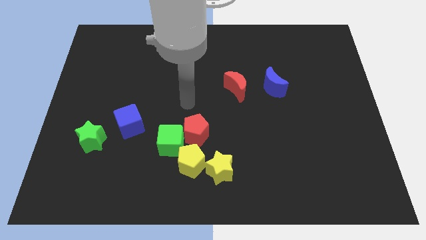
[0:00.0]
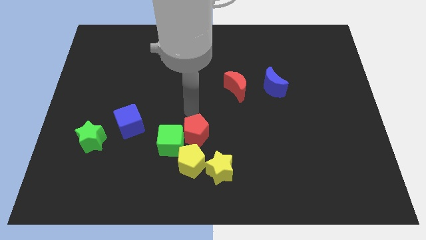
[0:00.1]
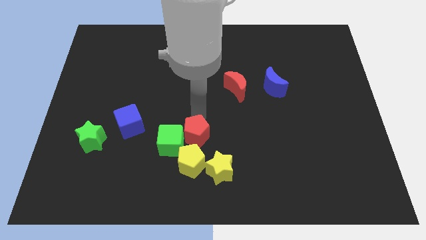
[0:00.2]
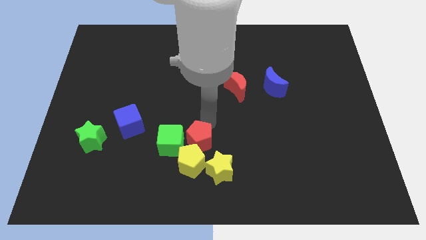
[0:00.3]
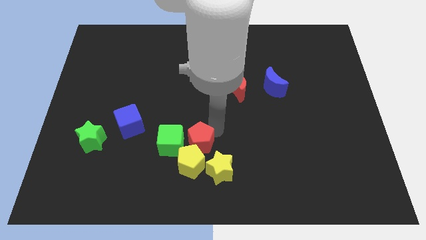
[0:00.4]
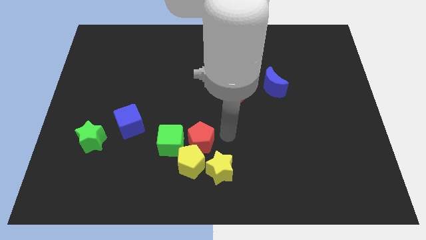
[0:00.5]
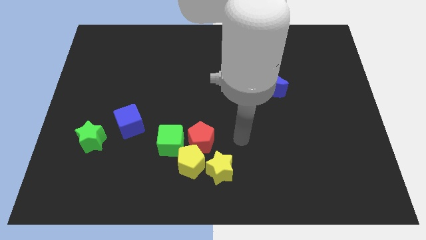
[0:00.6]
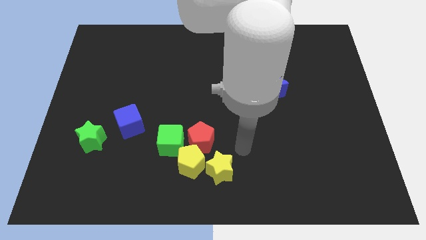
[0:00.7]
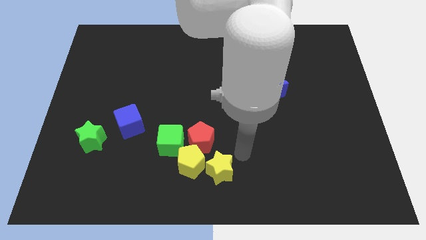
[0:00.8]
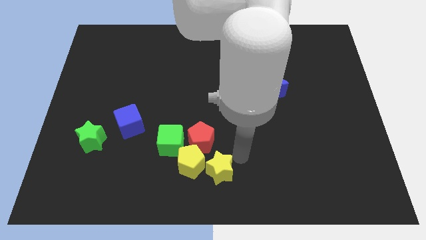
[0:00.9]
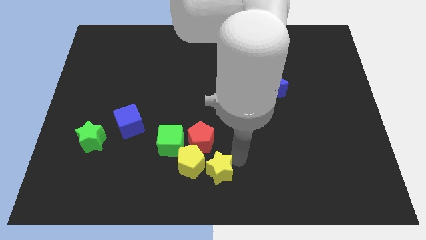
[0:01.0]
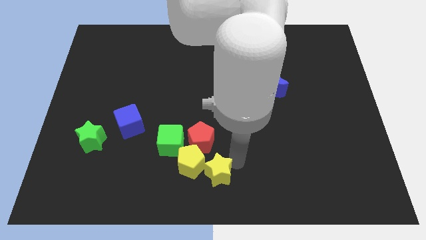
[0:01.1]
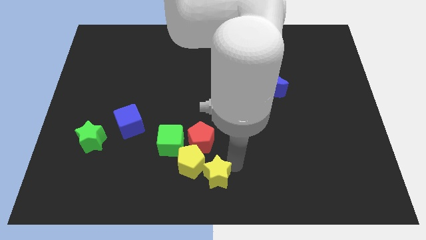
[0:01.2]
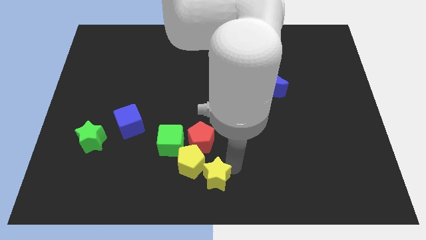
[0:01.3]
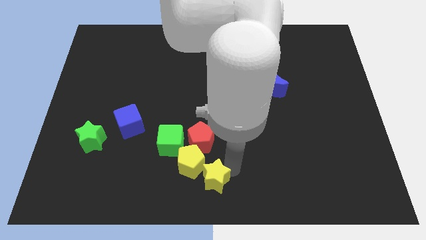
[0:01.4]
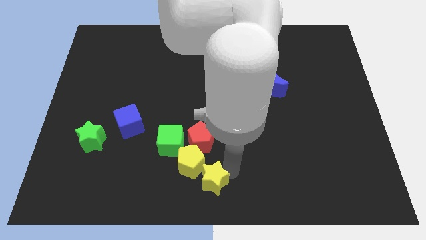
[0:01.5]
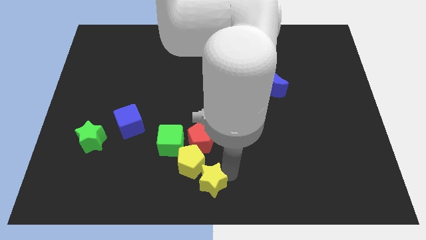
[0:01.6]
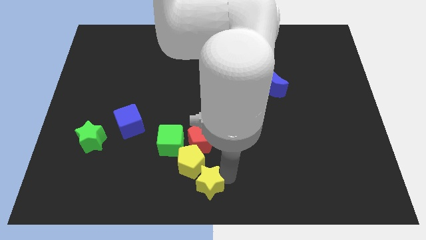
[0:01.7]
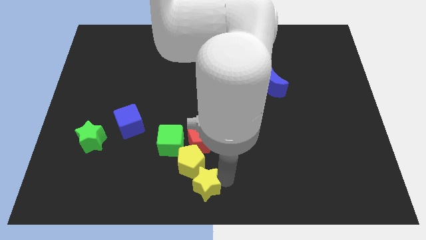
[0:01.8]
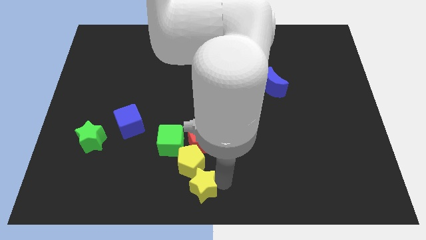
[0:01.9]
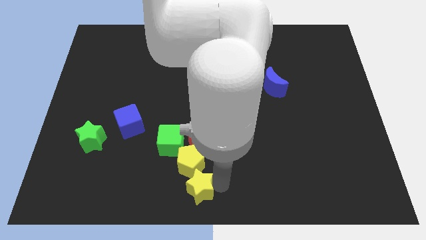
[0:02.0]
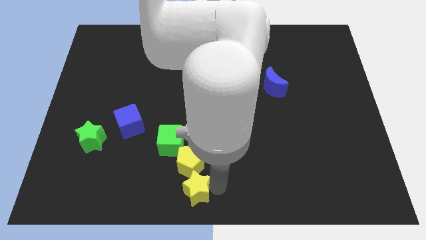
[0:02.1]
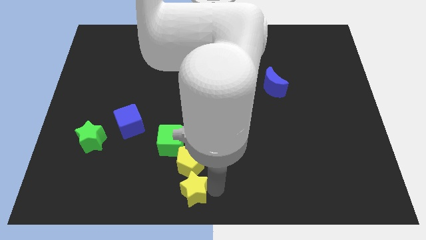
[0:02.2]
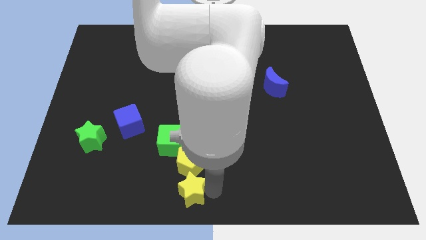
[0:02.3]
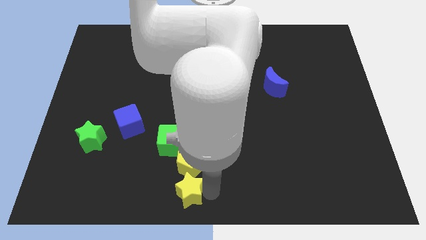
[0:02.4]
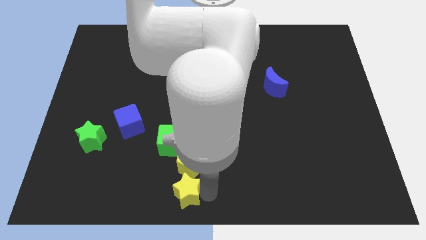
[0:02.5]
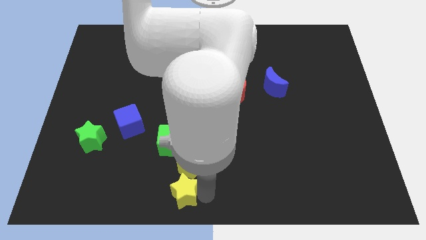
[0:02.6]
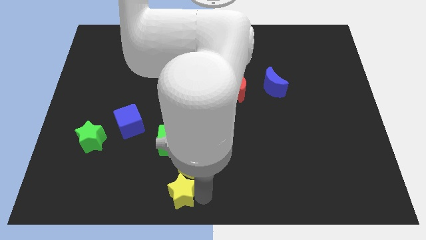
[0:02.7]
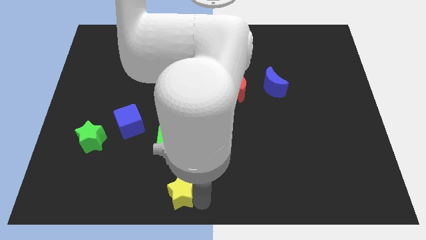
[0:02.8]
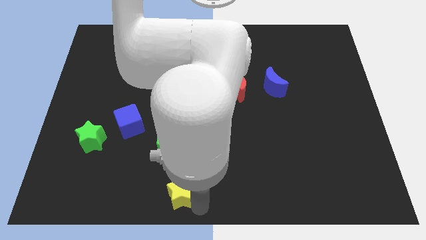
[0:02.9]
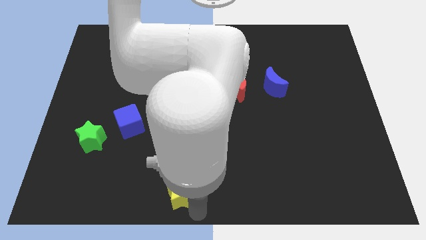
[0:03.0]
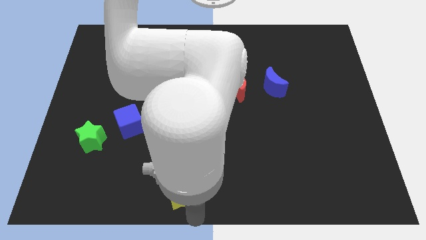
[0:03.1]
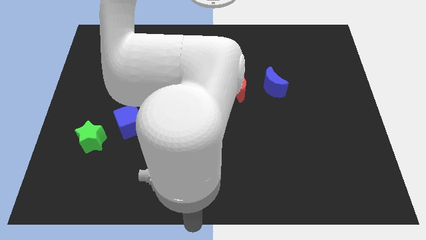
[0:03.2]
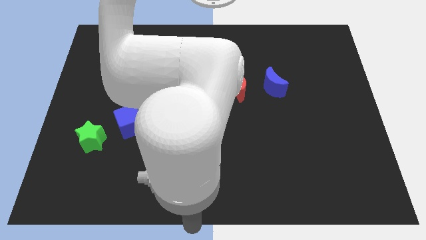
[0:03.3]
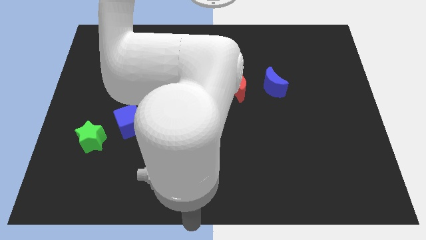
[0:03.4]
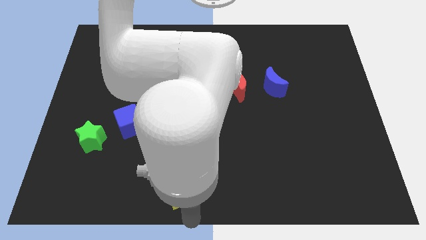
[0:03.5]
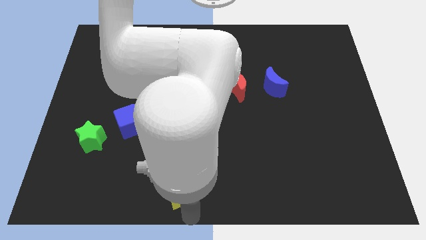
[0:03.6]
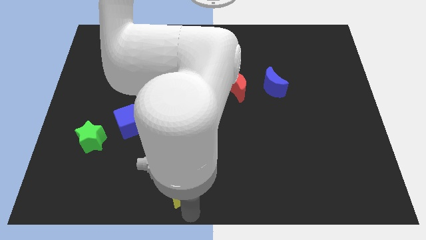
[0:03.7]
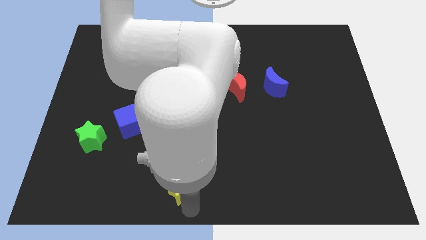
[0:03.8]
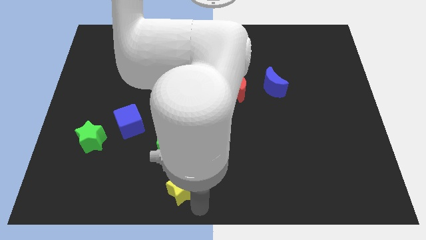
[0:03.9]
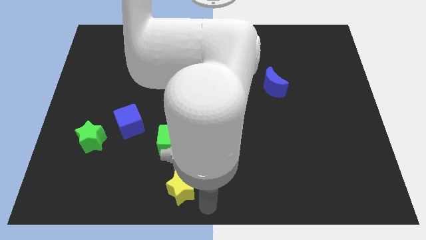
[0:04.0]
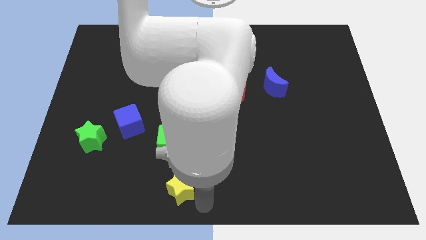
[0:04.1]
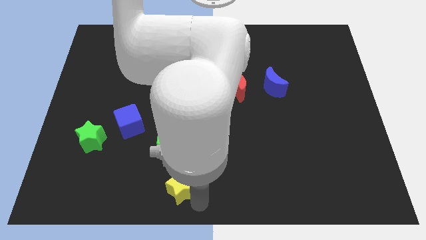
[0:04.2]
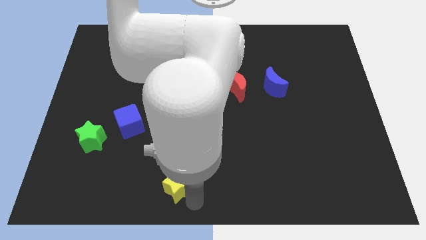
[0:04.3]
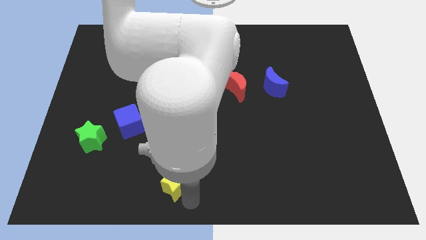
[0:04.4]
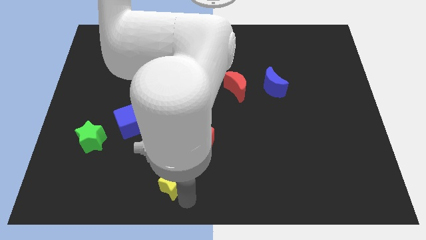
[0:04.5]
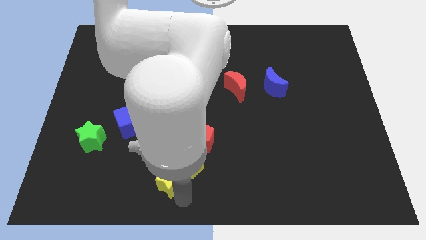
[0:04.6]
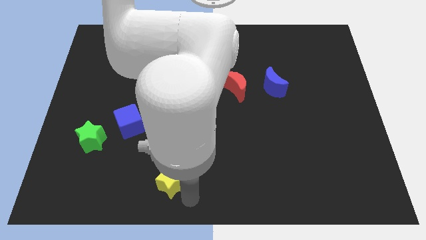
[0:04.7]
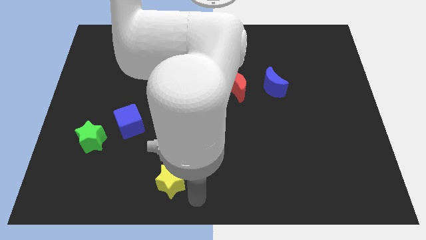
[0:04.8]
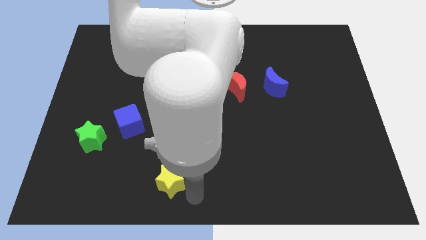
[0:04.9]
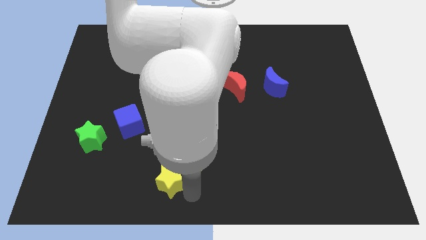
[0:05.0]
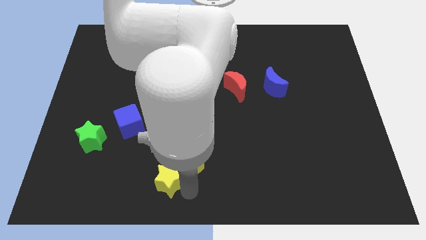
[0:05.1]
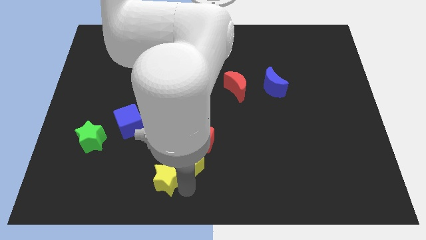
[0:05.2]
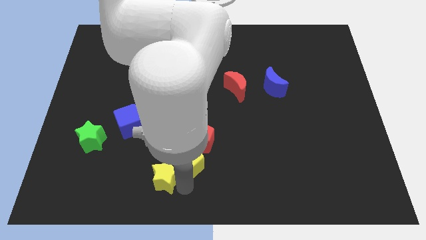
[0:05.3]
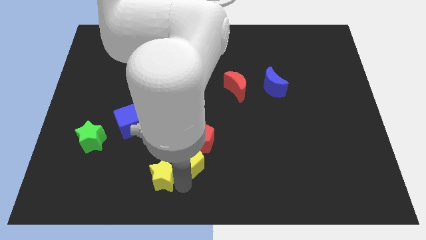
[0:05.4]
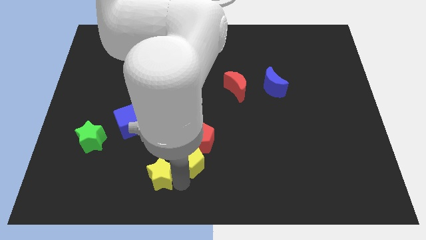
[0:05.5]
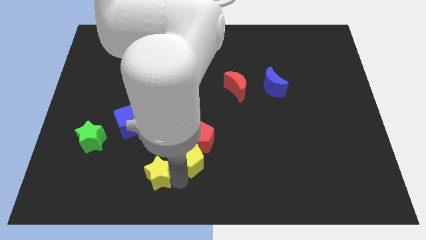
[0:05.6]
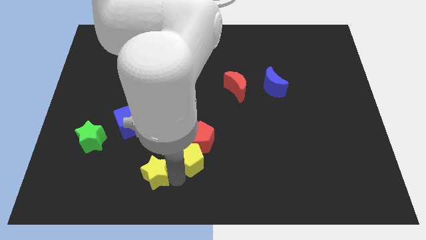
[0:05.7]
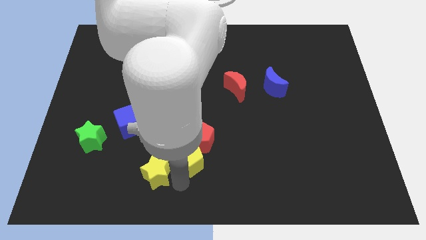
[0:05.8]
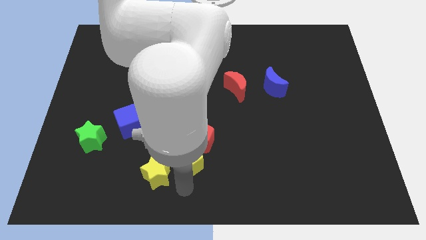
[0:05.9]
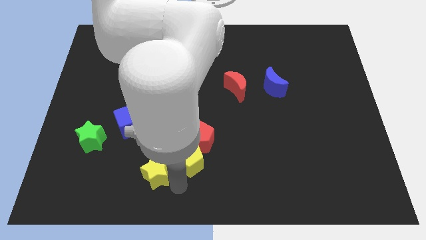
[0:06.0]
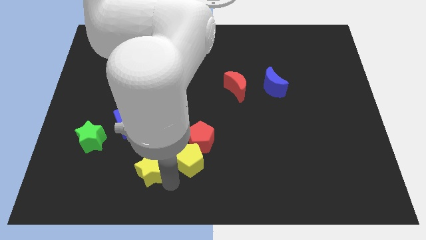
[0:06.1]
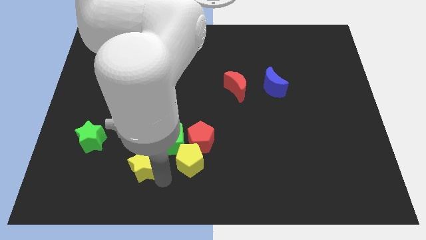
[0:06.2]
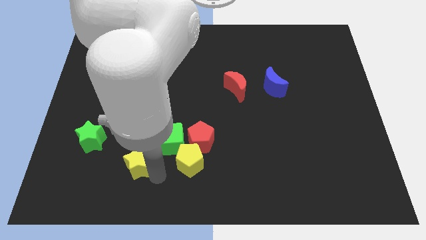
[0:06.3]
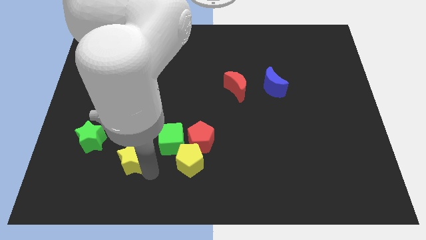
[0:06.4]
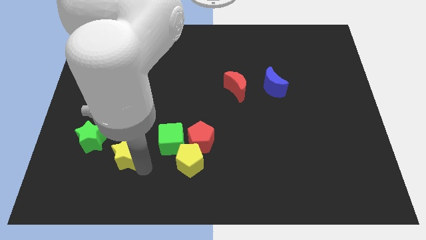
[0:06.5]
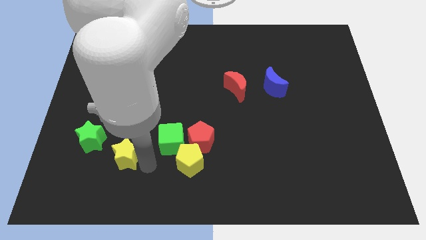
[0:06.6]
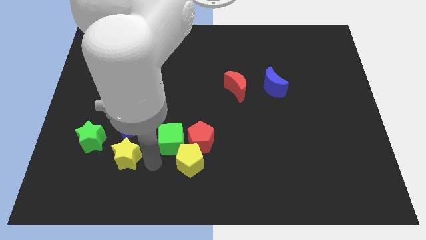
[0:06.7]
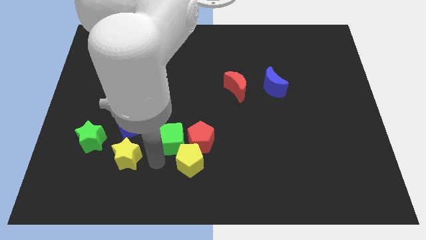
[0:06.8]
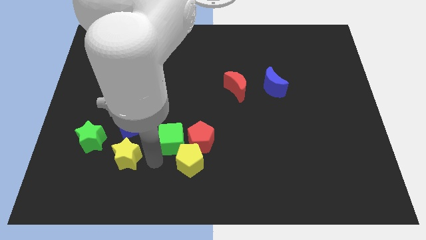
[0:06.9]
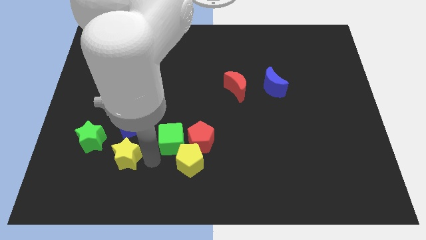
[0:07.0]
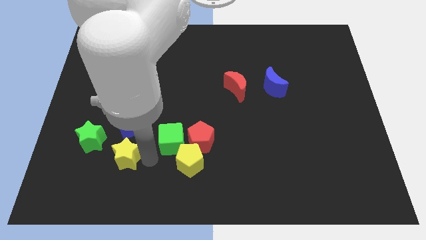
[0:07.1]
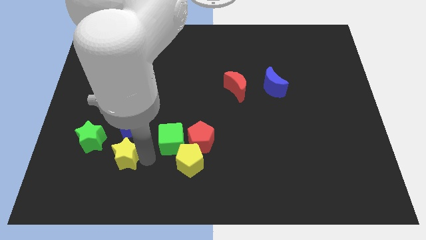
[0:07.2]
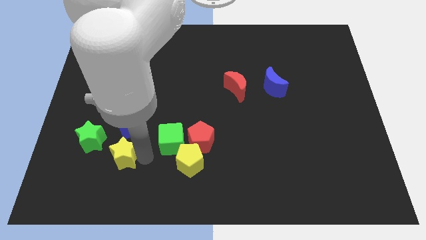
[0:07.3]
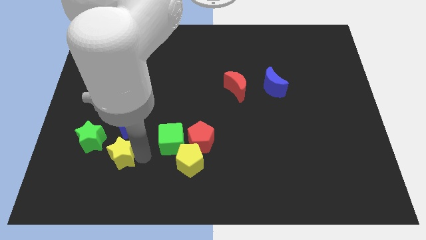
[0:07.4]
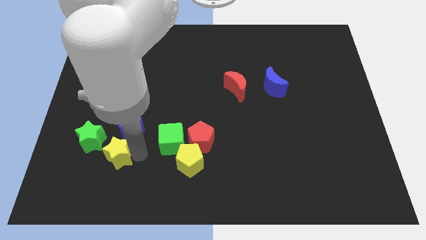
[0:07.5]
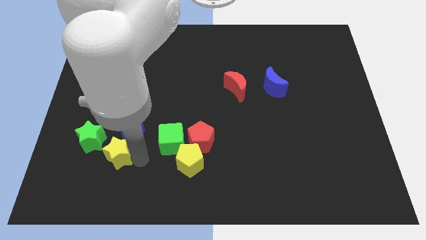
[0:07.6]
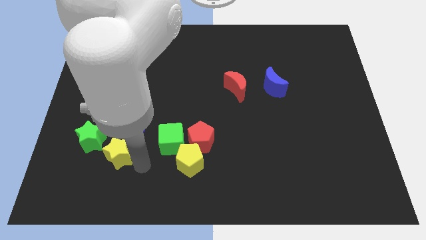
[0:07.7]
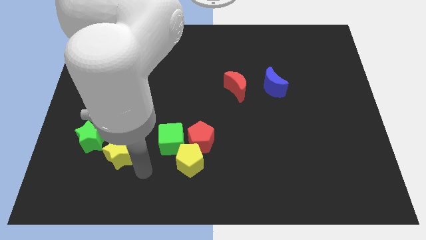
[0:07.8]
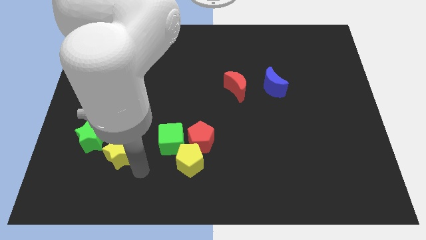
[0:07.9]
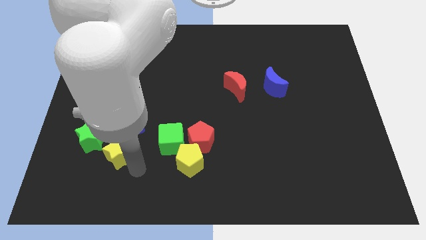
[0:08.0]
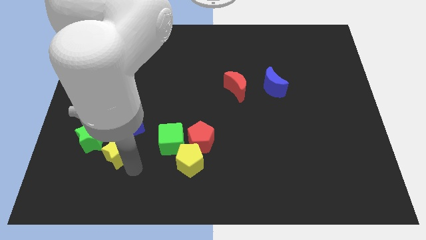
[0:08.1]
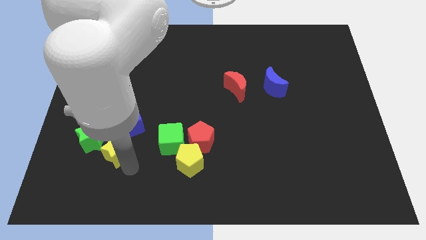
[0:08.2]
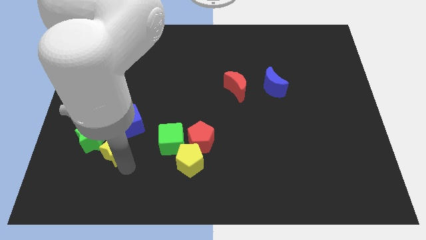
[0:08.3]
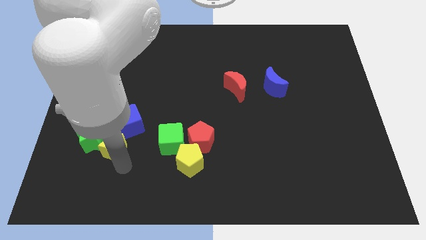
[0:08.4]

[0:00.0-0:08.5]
move the yellow star next to the green star
